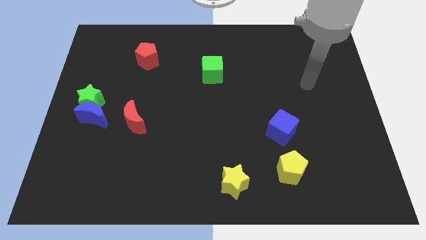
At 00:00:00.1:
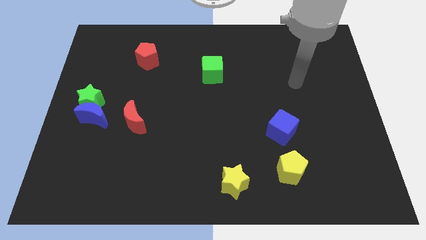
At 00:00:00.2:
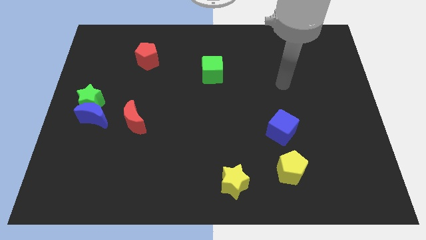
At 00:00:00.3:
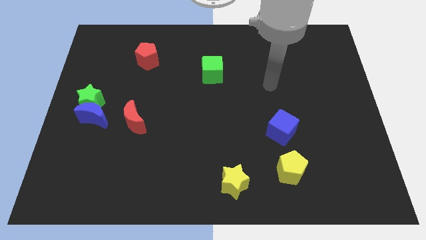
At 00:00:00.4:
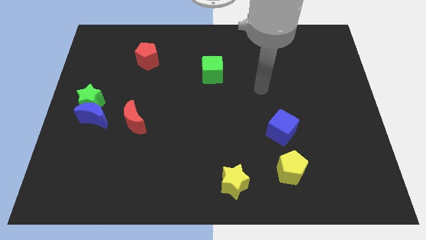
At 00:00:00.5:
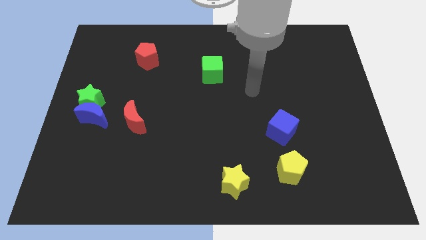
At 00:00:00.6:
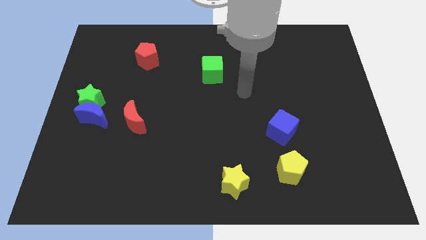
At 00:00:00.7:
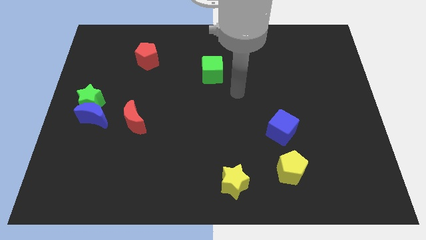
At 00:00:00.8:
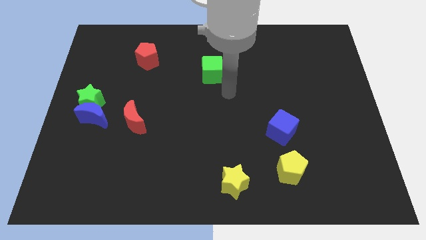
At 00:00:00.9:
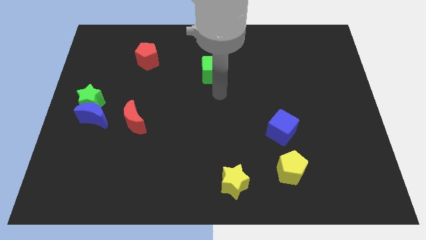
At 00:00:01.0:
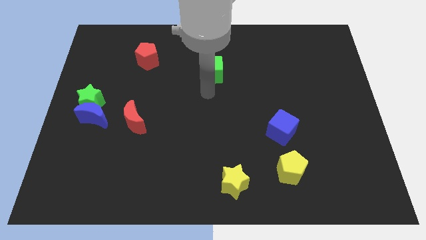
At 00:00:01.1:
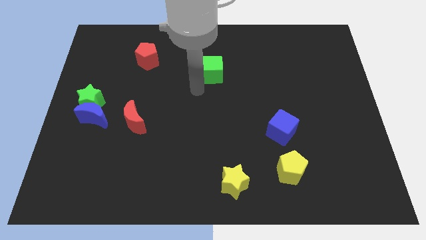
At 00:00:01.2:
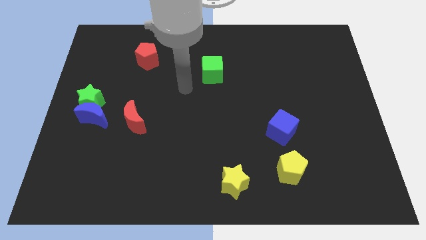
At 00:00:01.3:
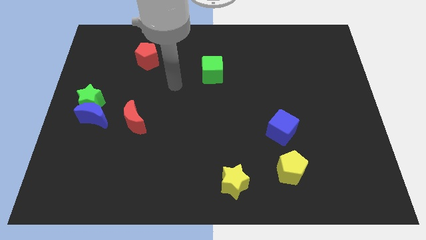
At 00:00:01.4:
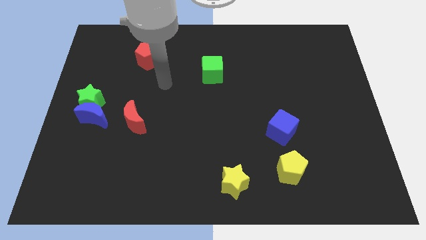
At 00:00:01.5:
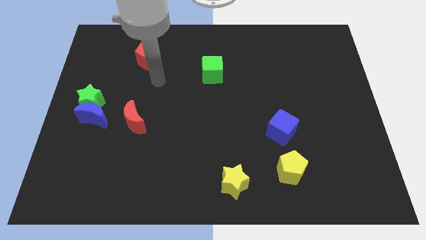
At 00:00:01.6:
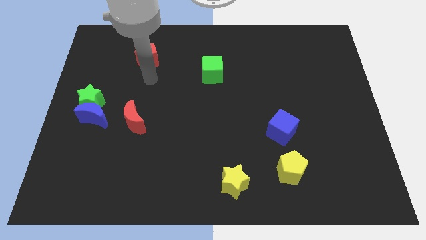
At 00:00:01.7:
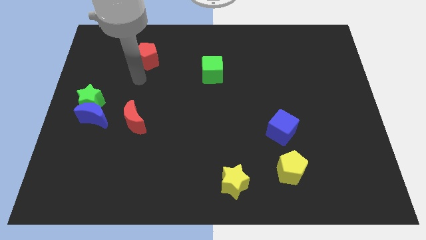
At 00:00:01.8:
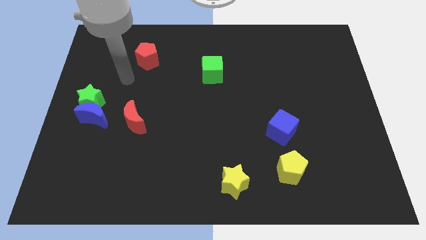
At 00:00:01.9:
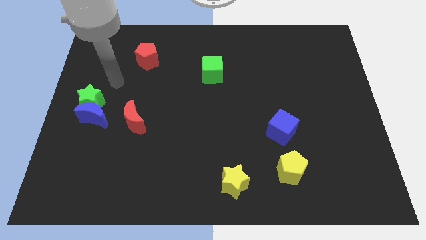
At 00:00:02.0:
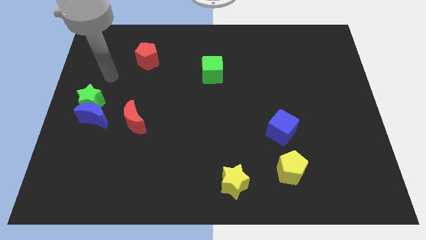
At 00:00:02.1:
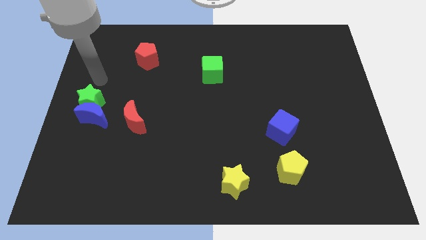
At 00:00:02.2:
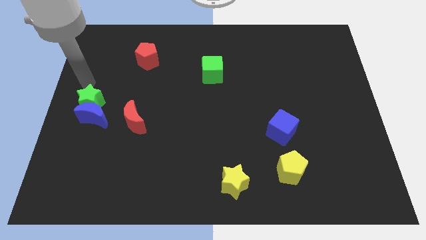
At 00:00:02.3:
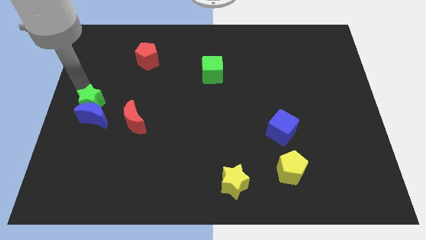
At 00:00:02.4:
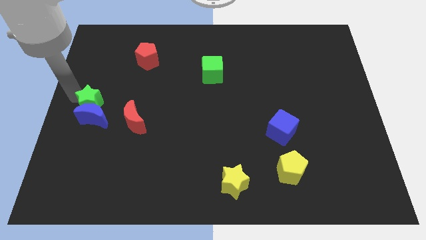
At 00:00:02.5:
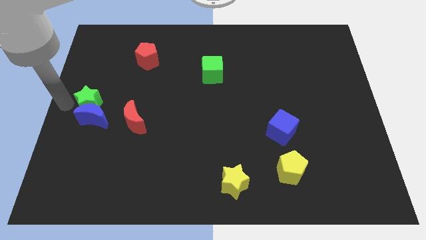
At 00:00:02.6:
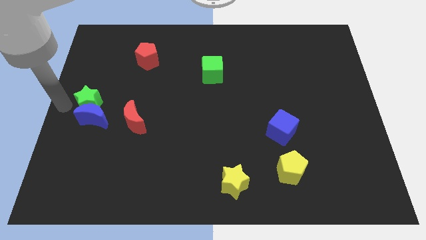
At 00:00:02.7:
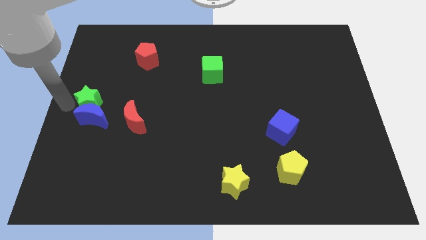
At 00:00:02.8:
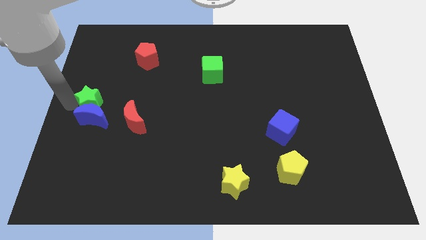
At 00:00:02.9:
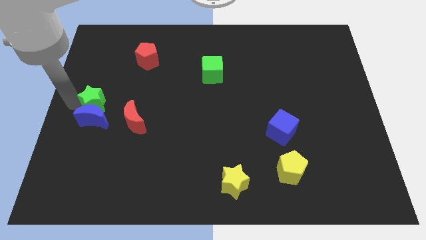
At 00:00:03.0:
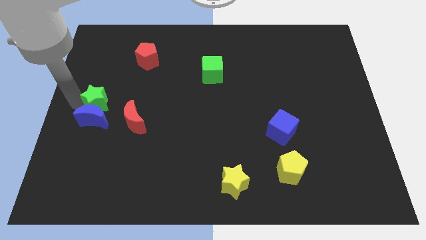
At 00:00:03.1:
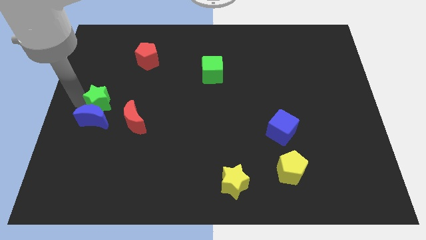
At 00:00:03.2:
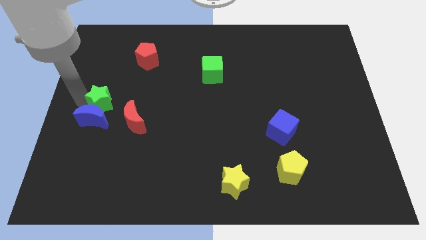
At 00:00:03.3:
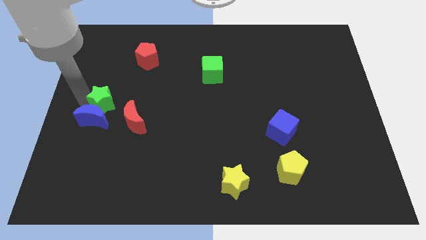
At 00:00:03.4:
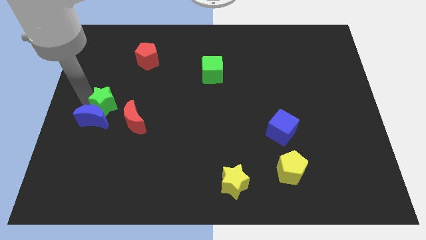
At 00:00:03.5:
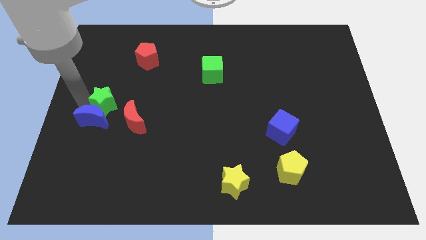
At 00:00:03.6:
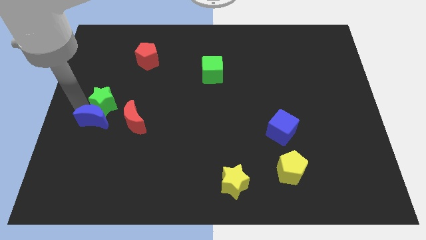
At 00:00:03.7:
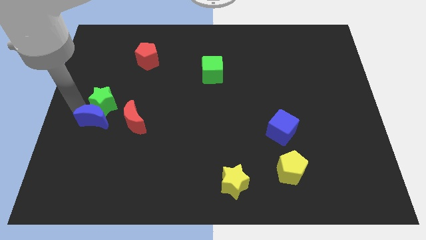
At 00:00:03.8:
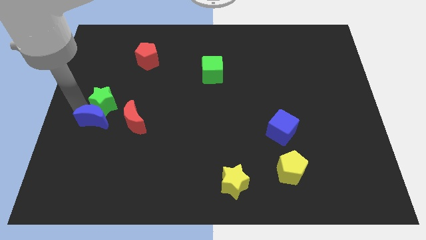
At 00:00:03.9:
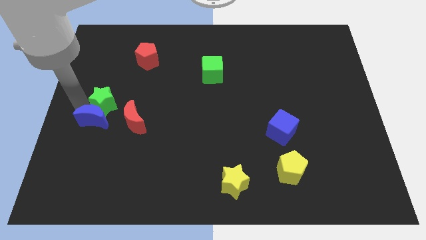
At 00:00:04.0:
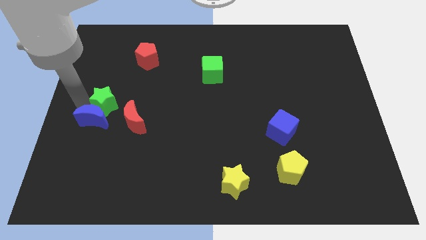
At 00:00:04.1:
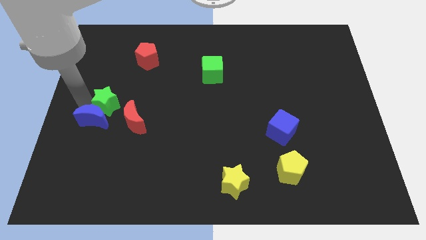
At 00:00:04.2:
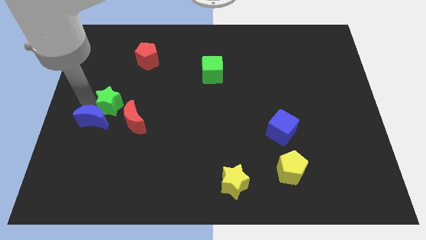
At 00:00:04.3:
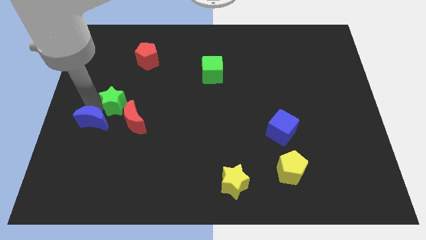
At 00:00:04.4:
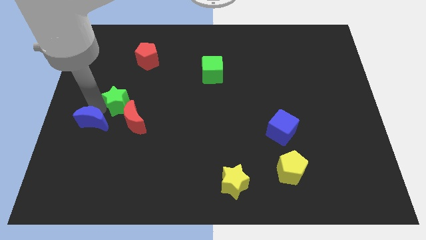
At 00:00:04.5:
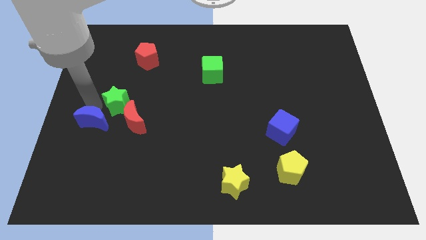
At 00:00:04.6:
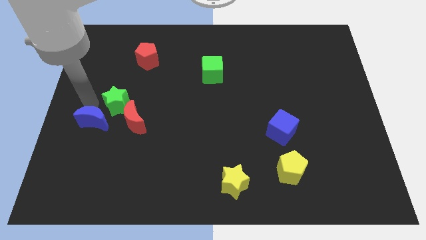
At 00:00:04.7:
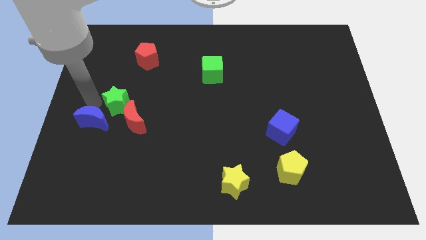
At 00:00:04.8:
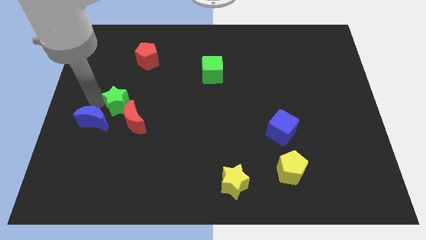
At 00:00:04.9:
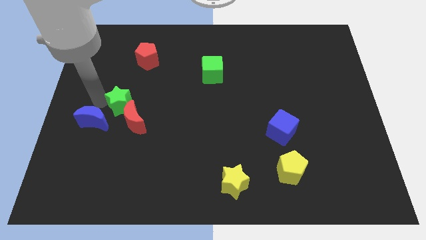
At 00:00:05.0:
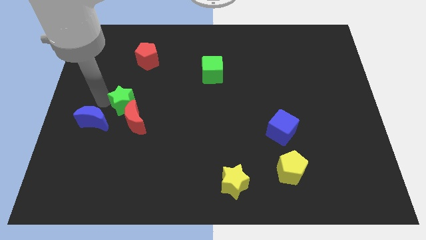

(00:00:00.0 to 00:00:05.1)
move the green star to the right a little bit

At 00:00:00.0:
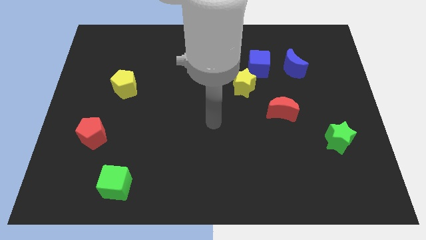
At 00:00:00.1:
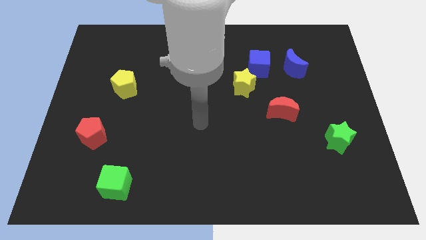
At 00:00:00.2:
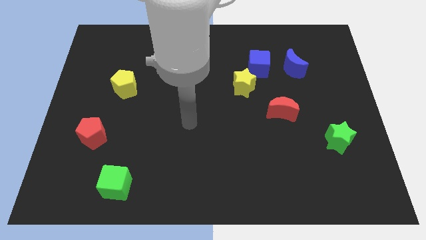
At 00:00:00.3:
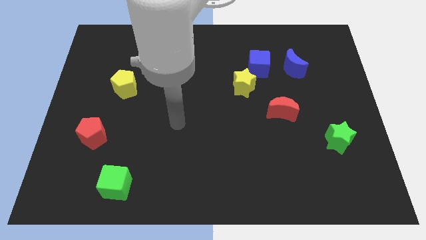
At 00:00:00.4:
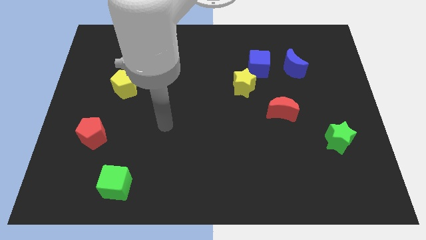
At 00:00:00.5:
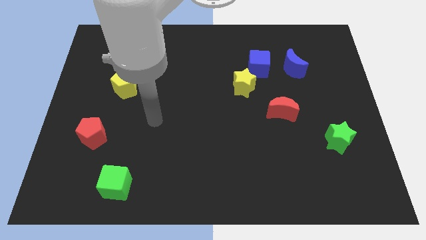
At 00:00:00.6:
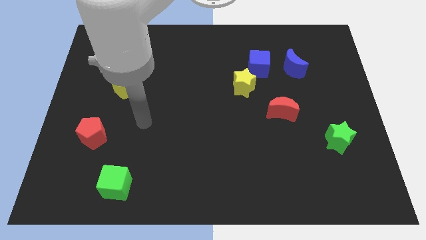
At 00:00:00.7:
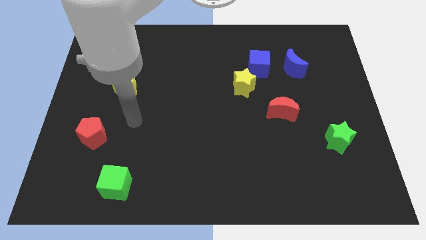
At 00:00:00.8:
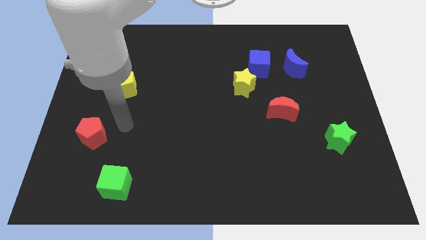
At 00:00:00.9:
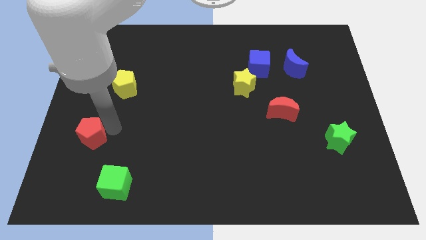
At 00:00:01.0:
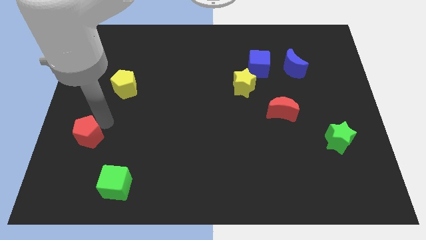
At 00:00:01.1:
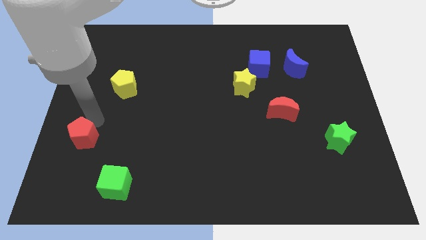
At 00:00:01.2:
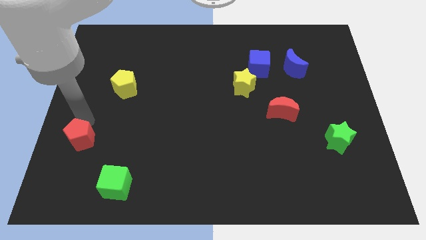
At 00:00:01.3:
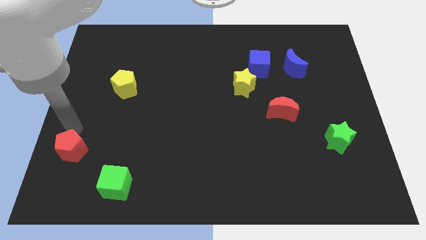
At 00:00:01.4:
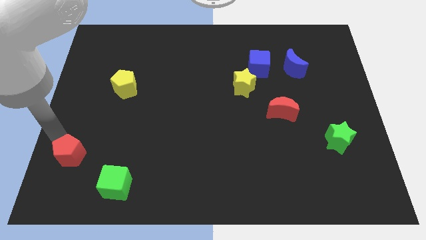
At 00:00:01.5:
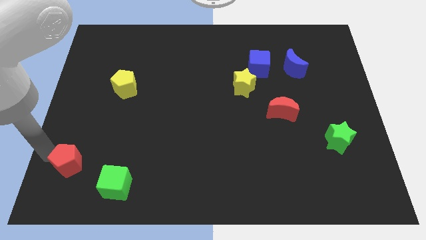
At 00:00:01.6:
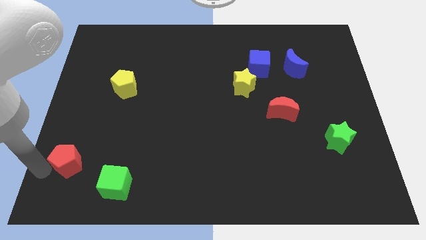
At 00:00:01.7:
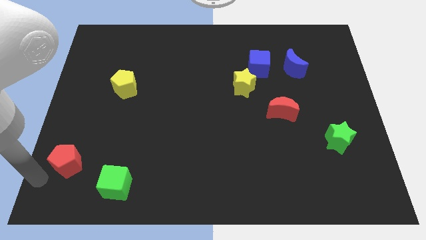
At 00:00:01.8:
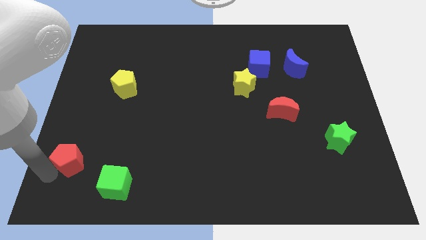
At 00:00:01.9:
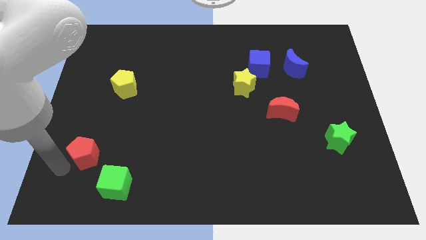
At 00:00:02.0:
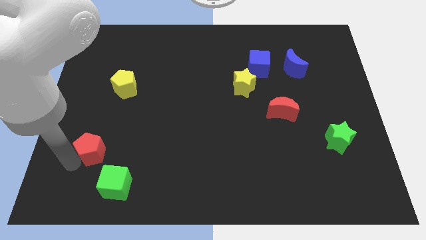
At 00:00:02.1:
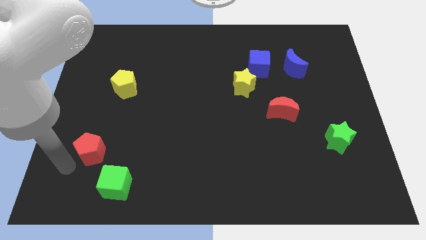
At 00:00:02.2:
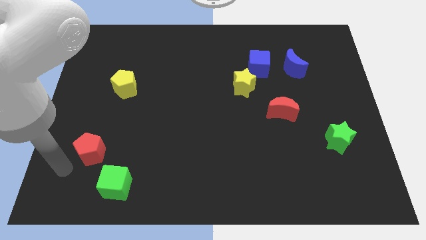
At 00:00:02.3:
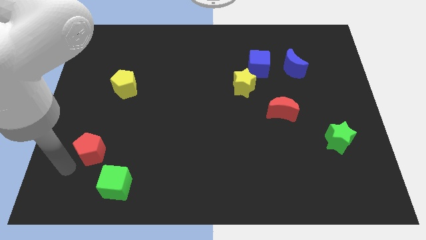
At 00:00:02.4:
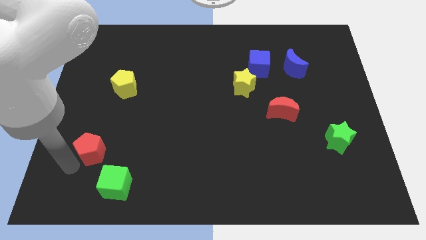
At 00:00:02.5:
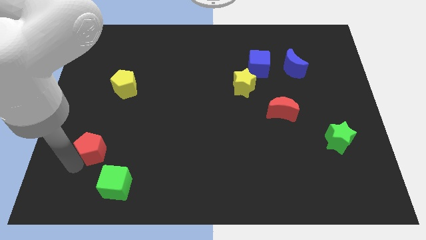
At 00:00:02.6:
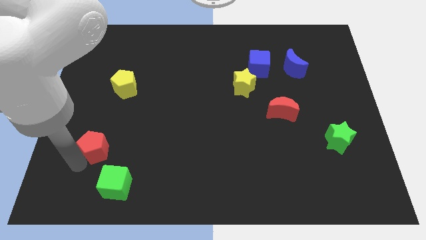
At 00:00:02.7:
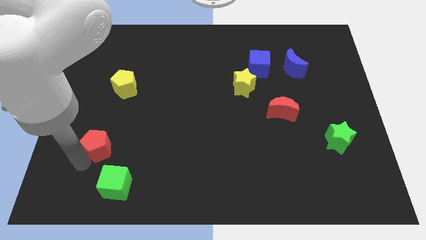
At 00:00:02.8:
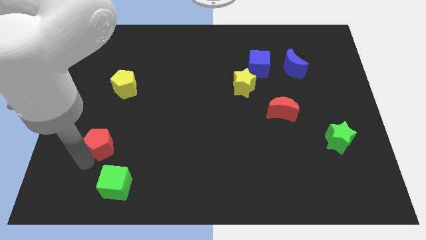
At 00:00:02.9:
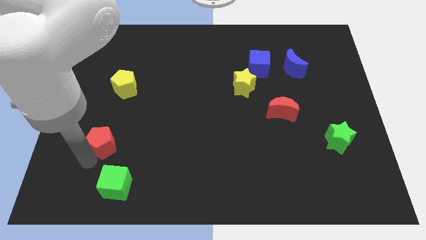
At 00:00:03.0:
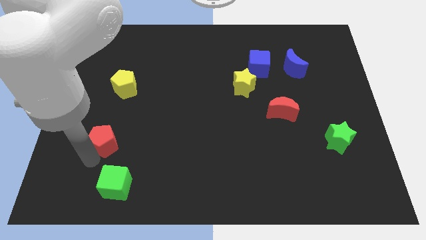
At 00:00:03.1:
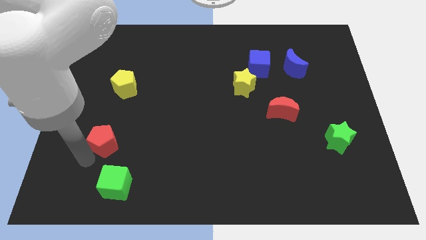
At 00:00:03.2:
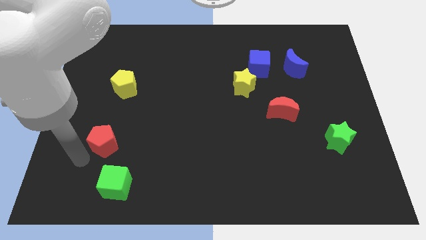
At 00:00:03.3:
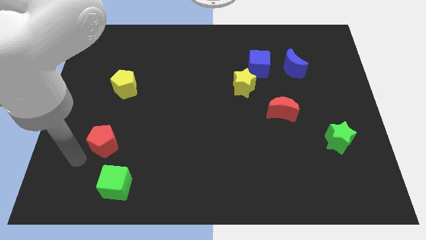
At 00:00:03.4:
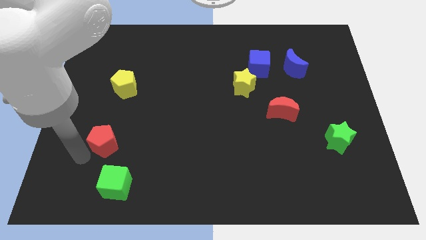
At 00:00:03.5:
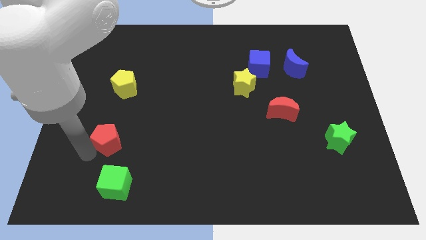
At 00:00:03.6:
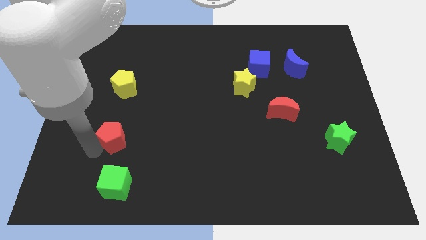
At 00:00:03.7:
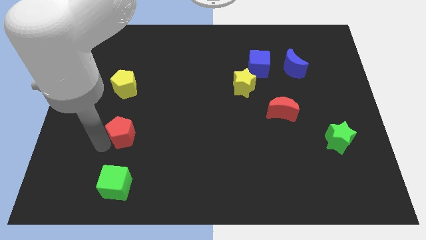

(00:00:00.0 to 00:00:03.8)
slide the red pentagon a bit to the right
